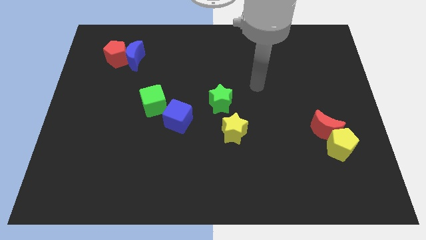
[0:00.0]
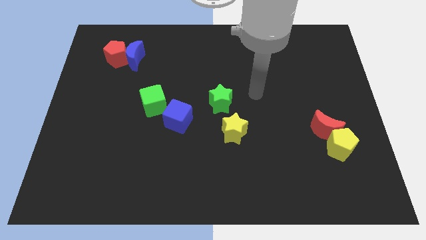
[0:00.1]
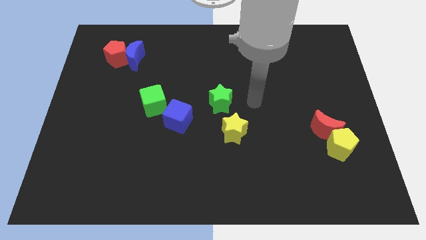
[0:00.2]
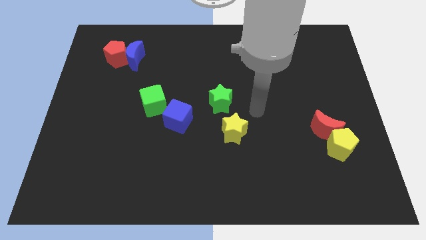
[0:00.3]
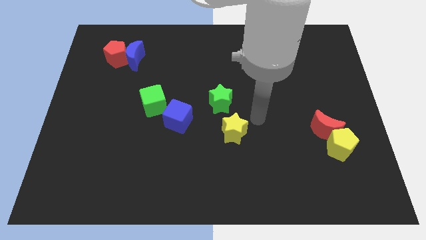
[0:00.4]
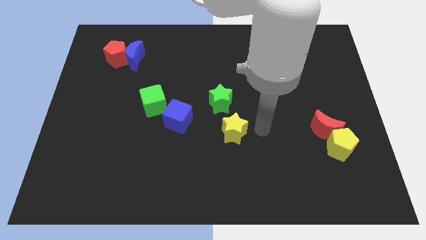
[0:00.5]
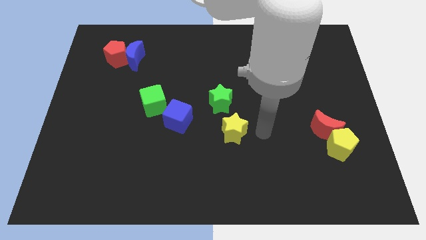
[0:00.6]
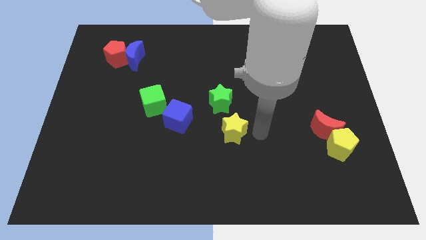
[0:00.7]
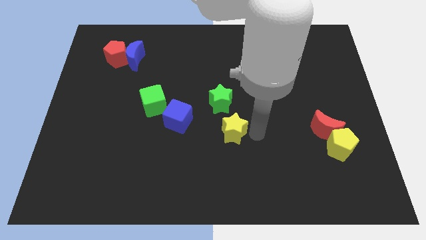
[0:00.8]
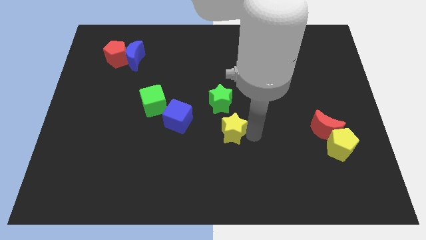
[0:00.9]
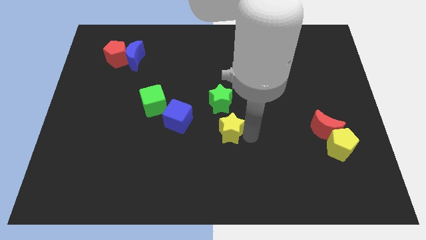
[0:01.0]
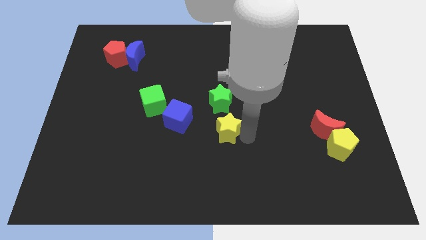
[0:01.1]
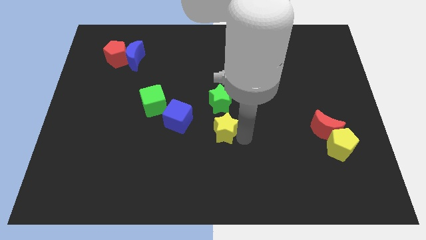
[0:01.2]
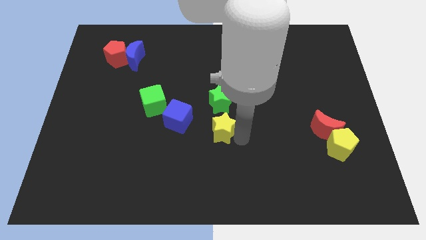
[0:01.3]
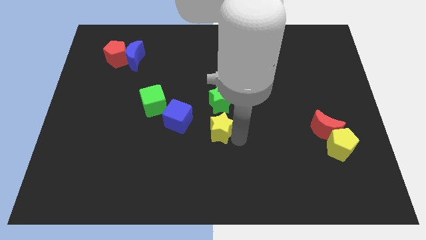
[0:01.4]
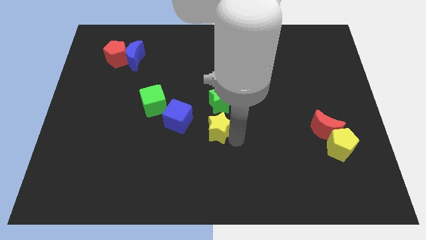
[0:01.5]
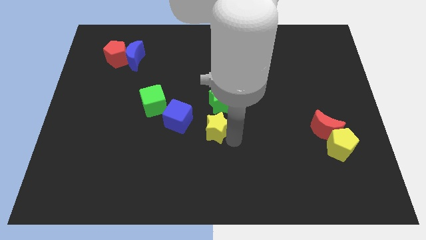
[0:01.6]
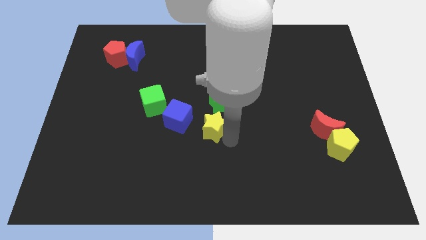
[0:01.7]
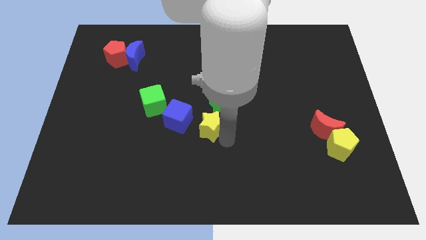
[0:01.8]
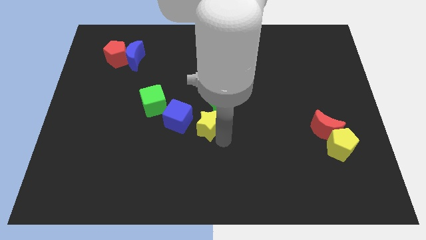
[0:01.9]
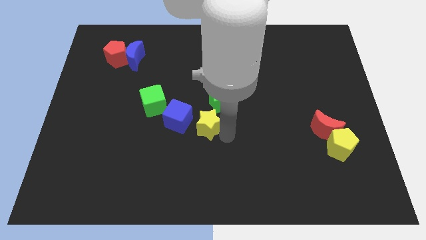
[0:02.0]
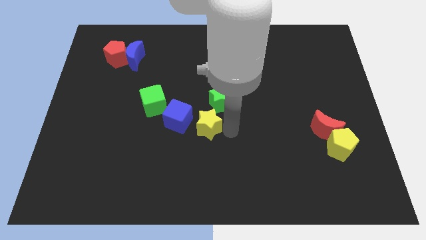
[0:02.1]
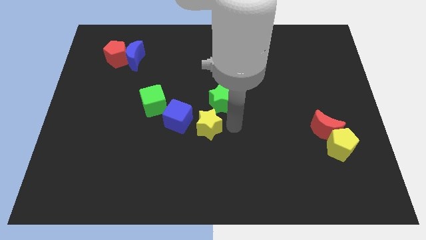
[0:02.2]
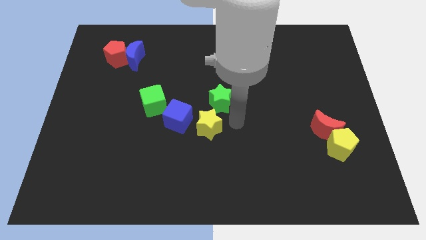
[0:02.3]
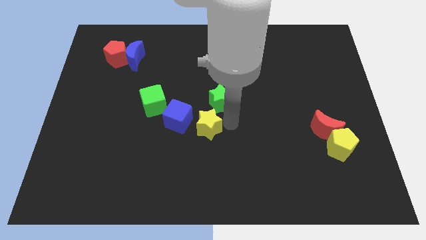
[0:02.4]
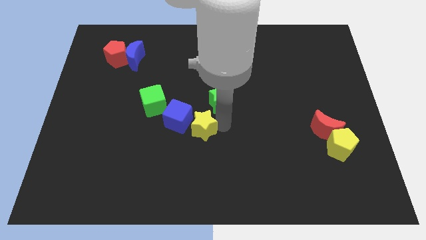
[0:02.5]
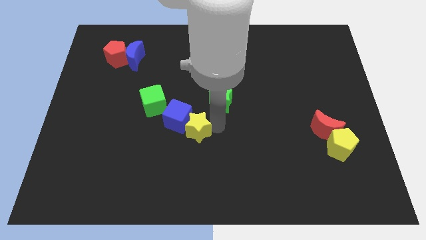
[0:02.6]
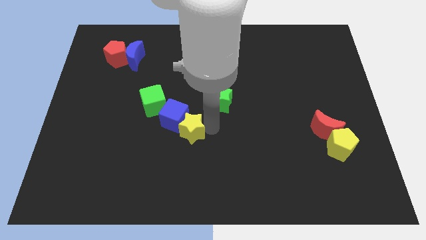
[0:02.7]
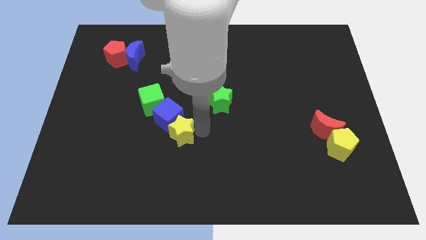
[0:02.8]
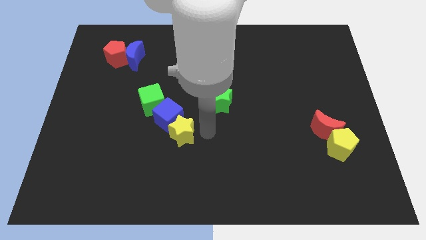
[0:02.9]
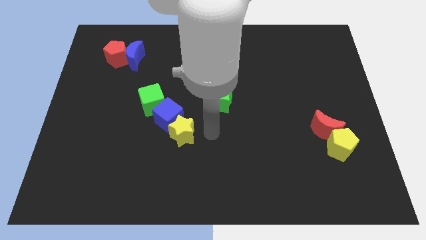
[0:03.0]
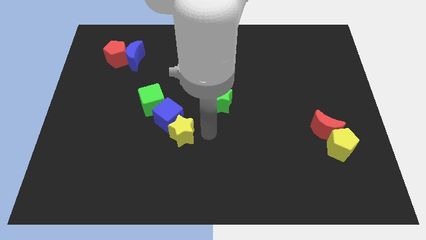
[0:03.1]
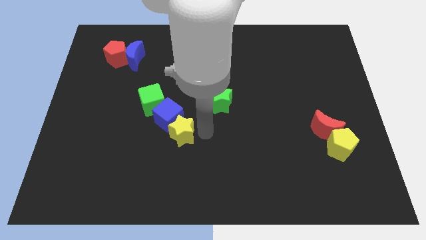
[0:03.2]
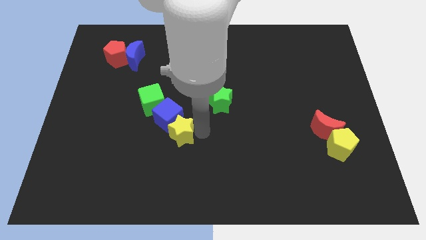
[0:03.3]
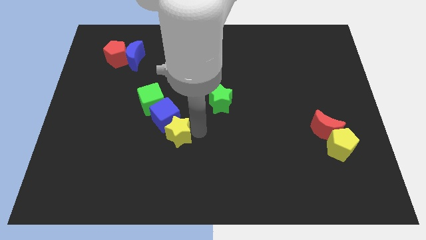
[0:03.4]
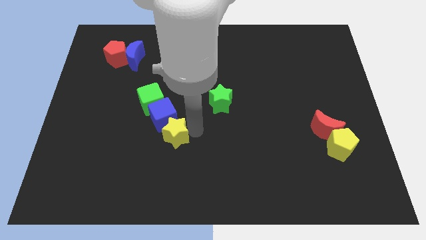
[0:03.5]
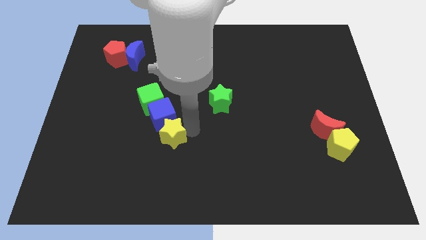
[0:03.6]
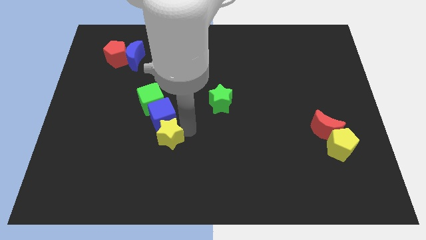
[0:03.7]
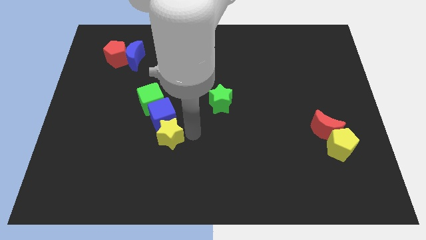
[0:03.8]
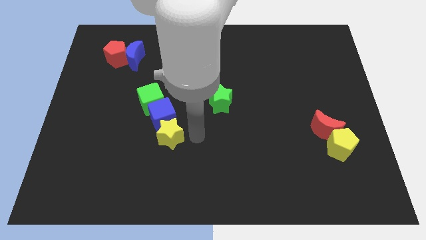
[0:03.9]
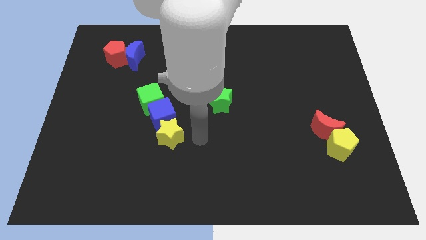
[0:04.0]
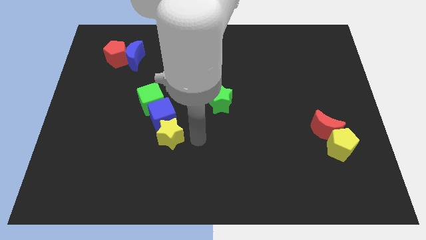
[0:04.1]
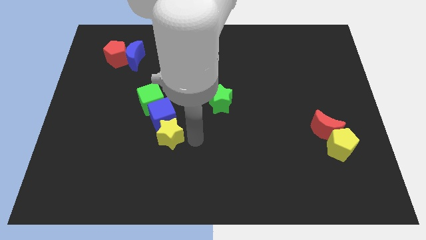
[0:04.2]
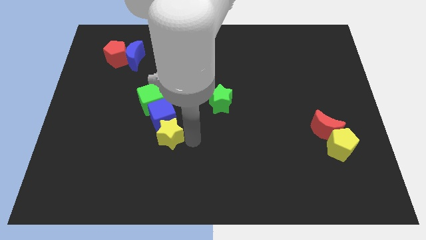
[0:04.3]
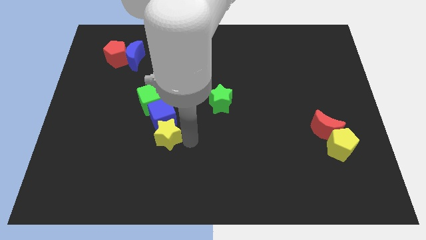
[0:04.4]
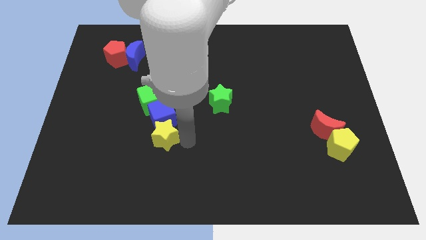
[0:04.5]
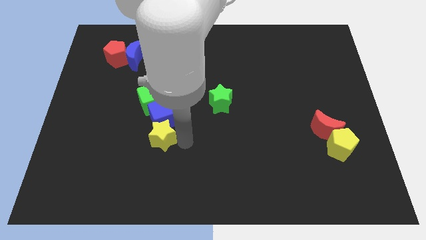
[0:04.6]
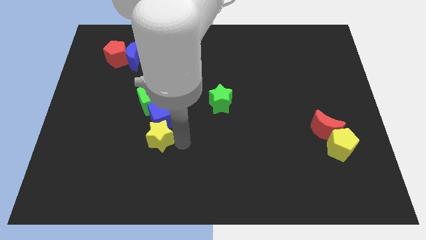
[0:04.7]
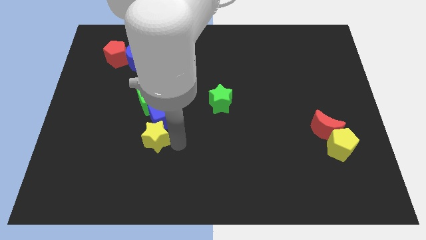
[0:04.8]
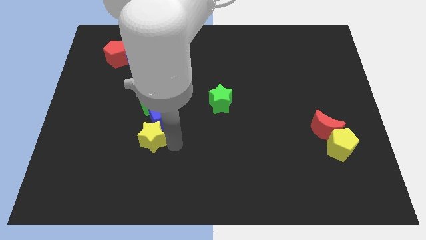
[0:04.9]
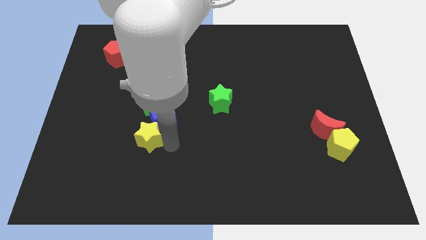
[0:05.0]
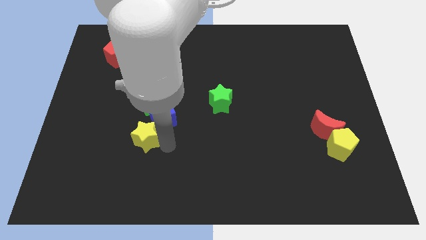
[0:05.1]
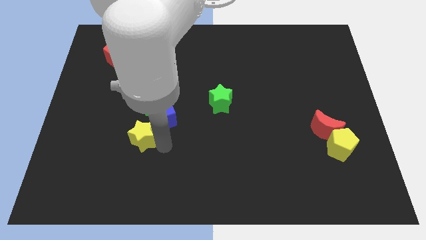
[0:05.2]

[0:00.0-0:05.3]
slide the yellow star to the left

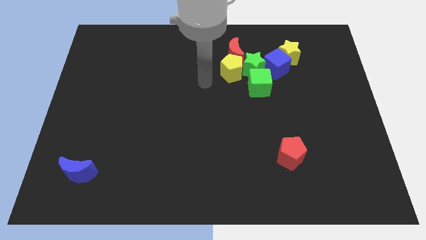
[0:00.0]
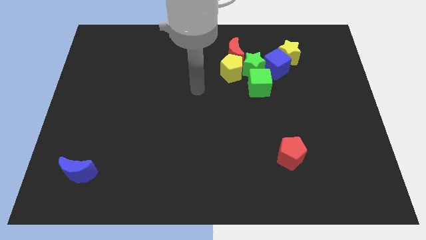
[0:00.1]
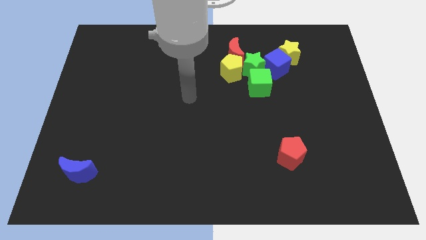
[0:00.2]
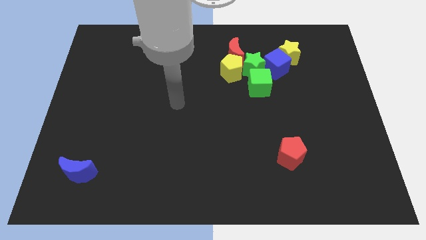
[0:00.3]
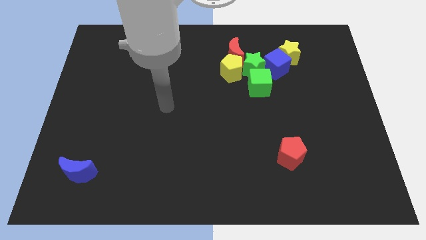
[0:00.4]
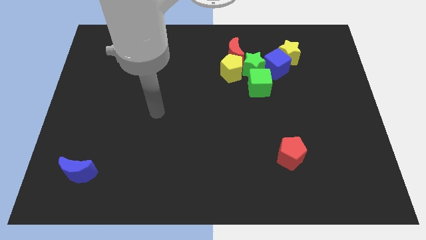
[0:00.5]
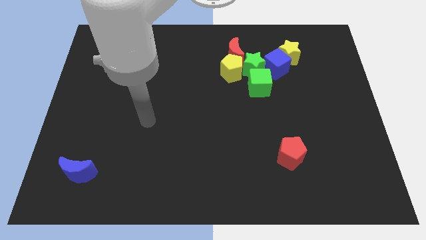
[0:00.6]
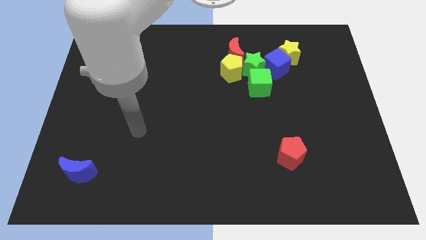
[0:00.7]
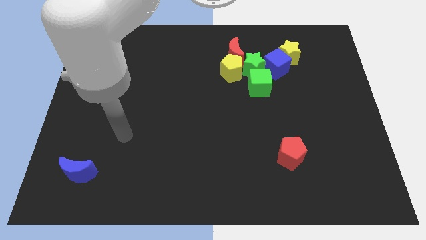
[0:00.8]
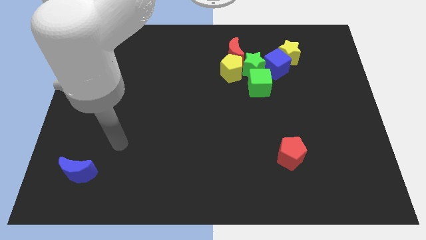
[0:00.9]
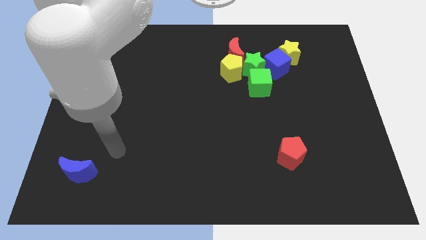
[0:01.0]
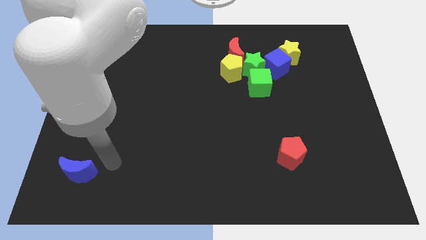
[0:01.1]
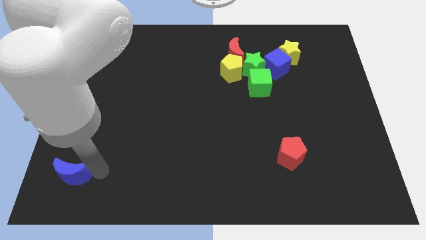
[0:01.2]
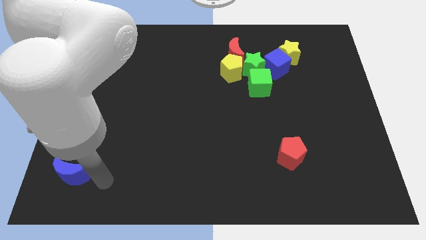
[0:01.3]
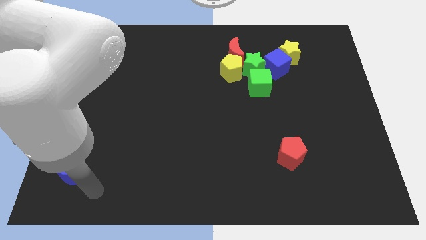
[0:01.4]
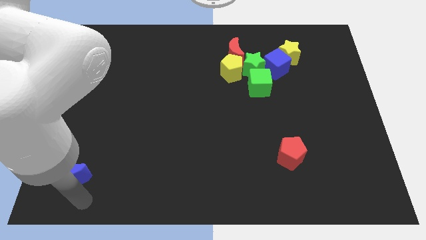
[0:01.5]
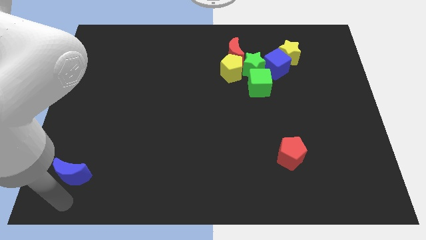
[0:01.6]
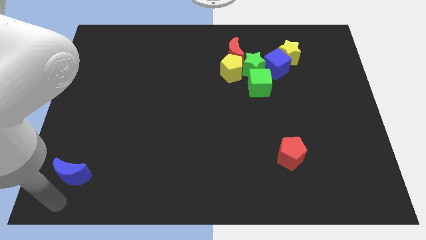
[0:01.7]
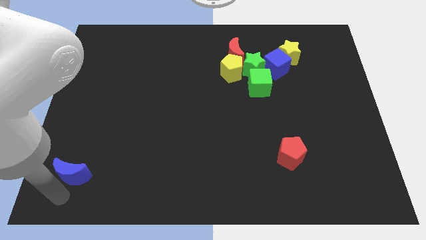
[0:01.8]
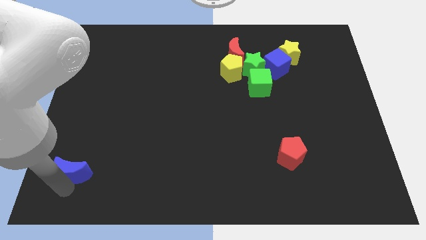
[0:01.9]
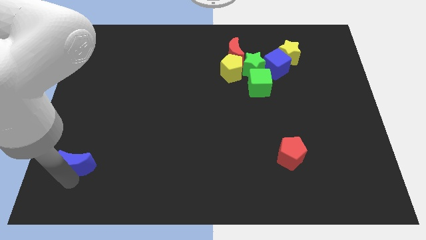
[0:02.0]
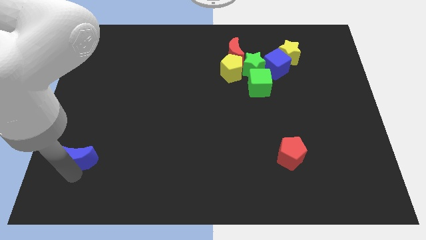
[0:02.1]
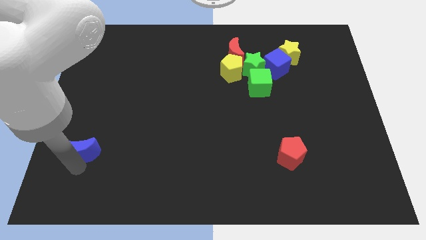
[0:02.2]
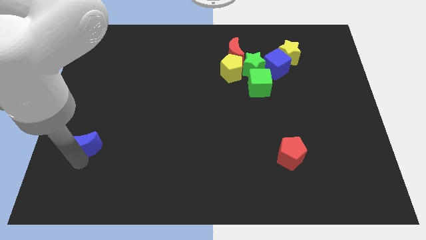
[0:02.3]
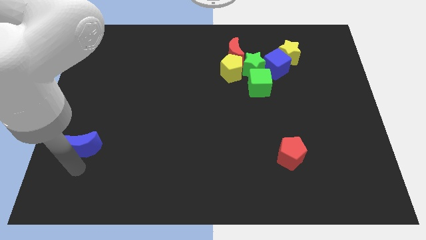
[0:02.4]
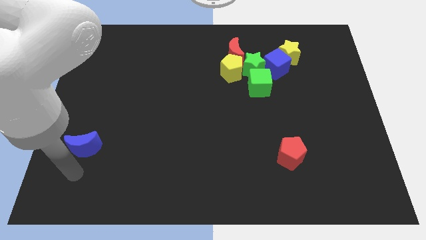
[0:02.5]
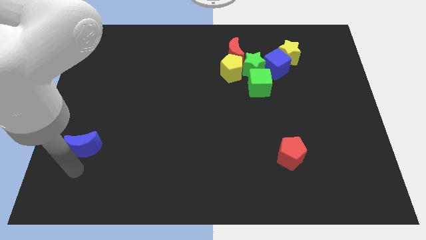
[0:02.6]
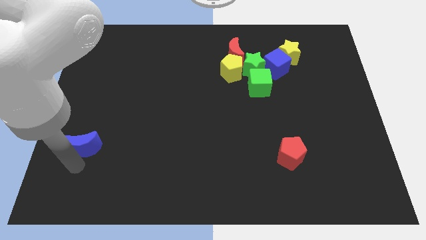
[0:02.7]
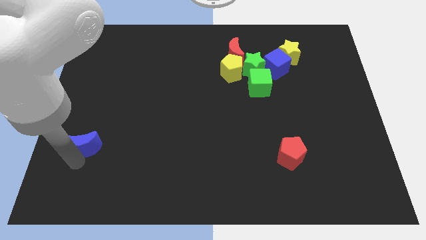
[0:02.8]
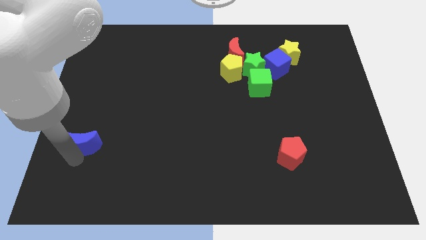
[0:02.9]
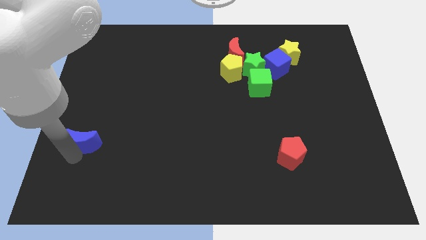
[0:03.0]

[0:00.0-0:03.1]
move the blue moon a little up
